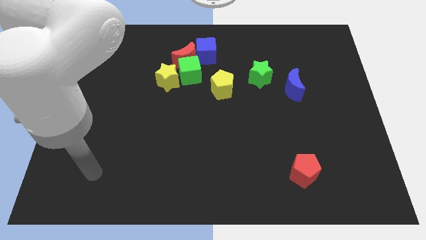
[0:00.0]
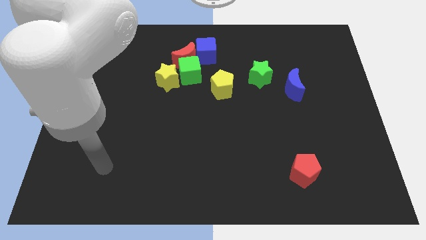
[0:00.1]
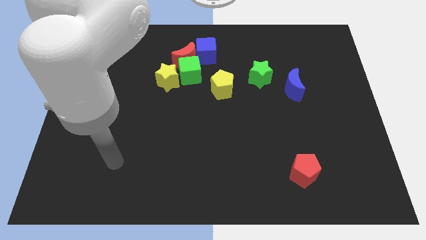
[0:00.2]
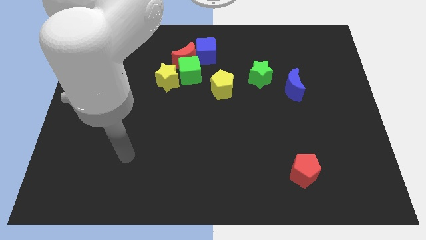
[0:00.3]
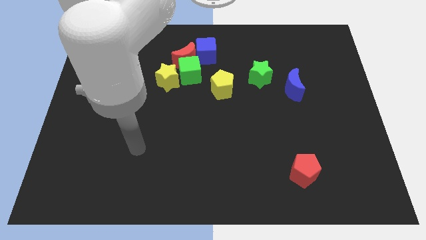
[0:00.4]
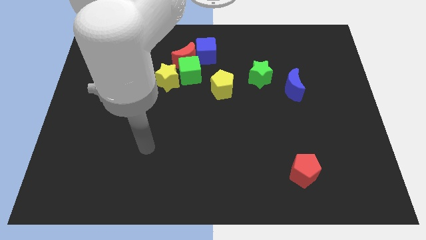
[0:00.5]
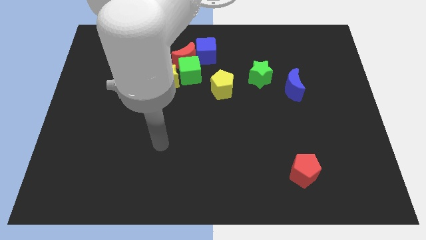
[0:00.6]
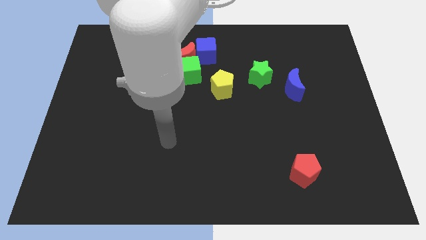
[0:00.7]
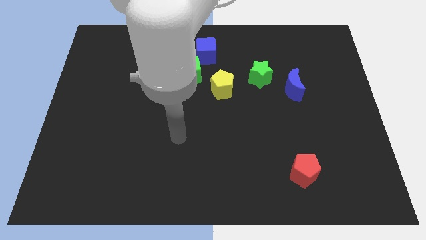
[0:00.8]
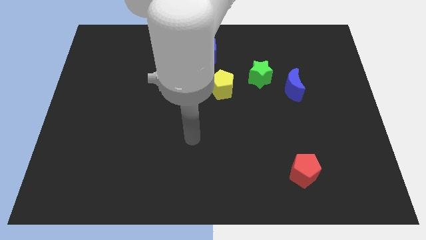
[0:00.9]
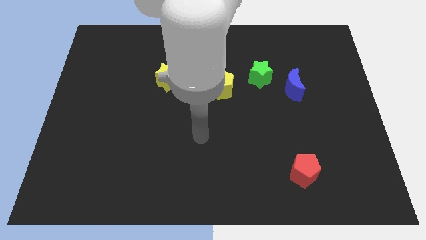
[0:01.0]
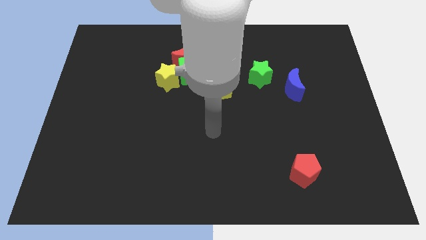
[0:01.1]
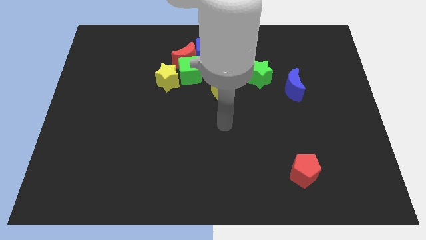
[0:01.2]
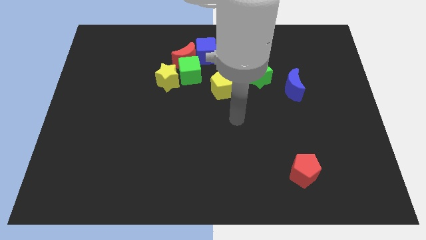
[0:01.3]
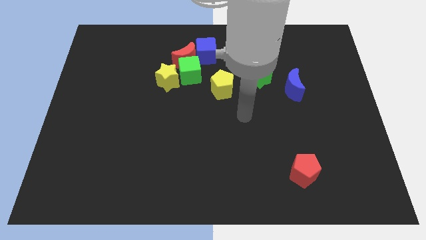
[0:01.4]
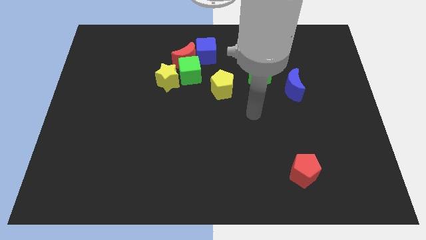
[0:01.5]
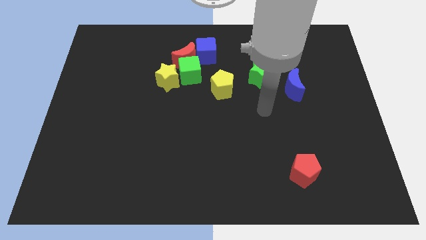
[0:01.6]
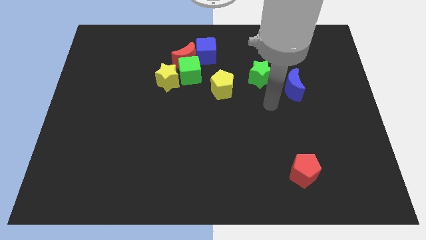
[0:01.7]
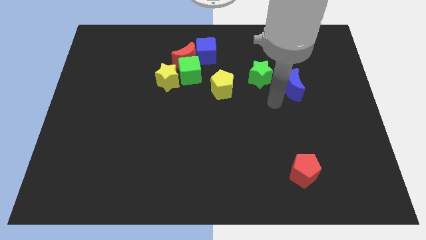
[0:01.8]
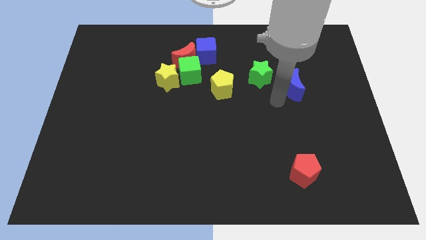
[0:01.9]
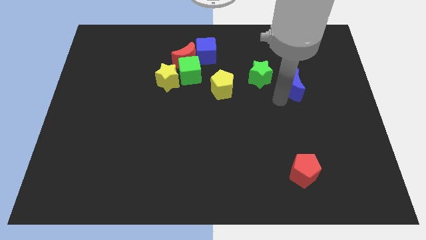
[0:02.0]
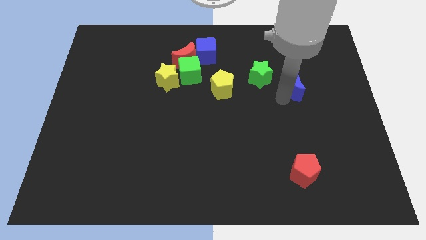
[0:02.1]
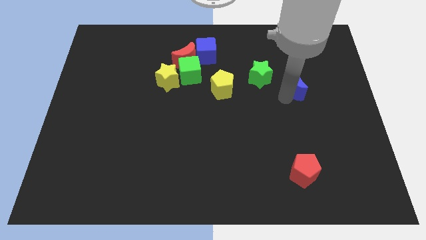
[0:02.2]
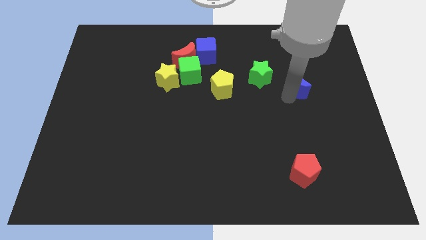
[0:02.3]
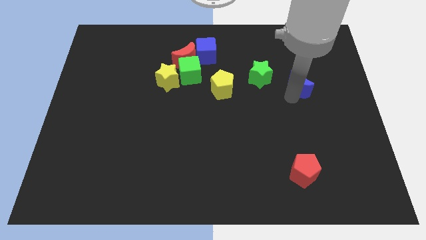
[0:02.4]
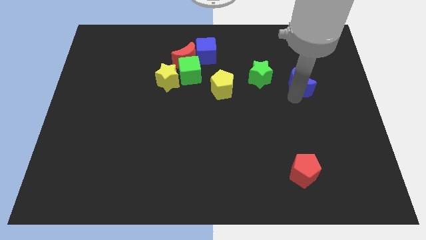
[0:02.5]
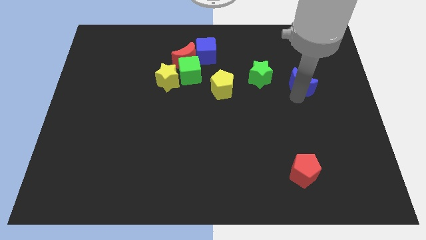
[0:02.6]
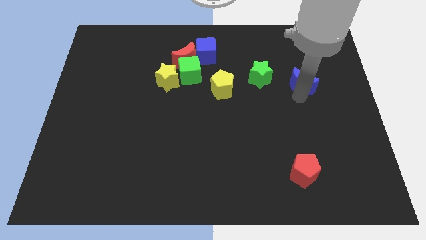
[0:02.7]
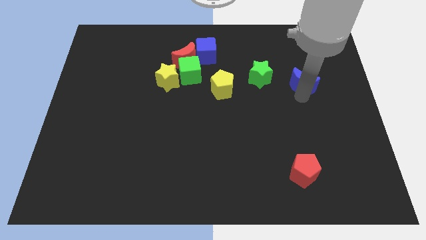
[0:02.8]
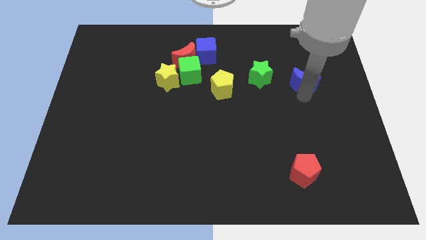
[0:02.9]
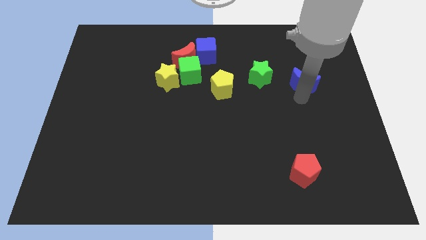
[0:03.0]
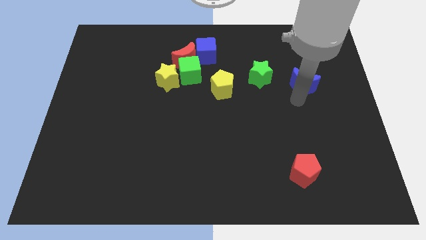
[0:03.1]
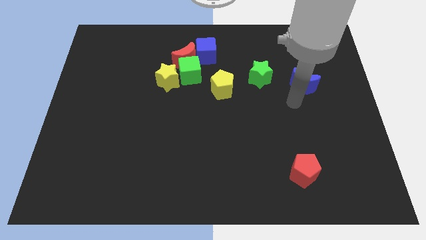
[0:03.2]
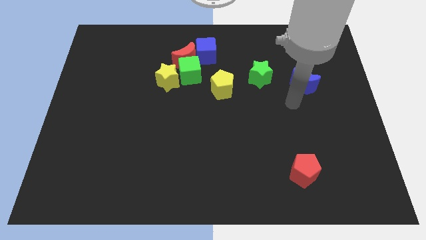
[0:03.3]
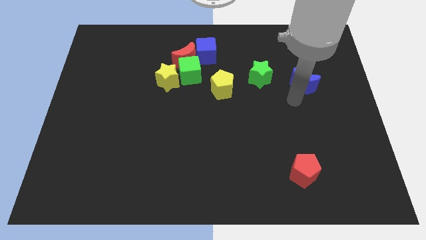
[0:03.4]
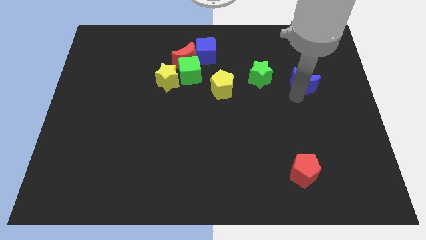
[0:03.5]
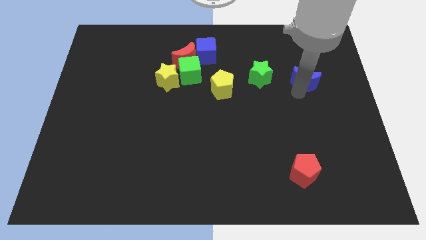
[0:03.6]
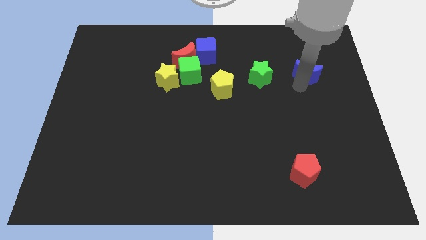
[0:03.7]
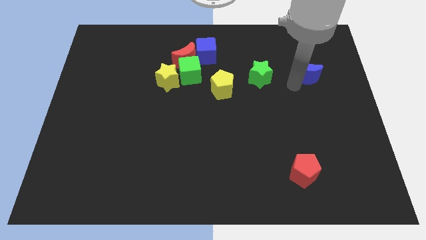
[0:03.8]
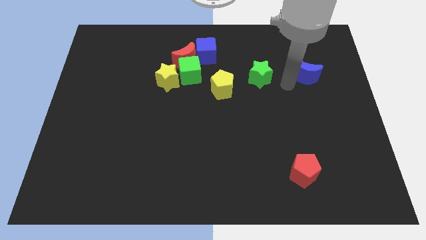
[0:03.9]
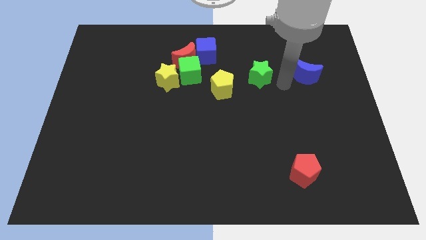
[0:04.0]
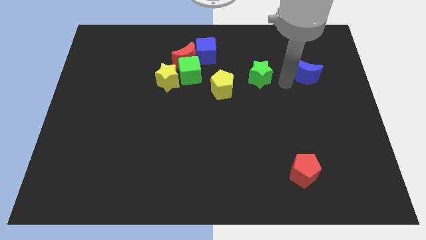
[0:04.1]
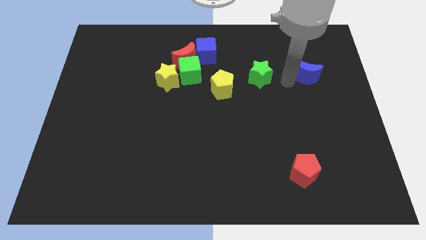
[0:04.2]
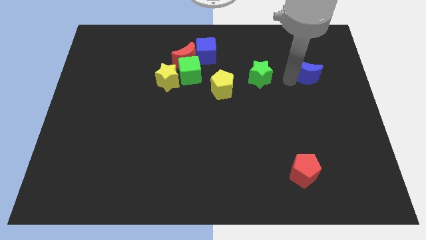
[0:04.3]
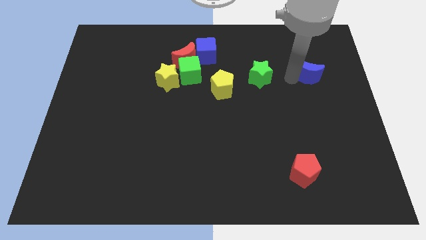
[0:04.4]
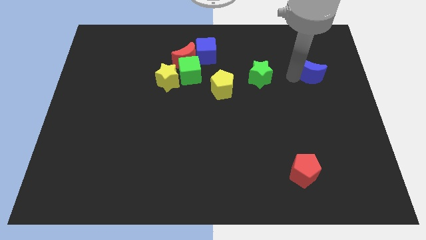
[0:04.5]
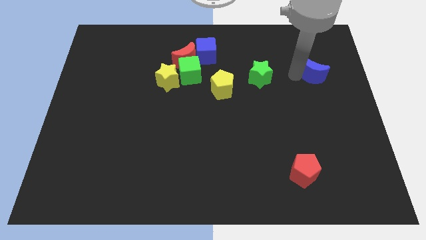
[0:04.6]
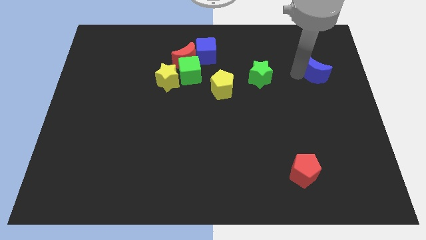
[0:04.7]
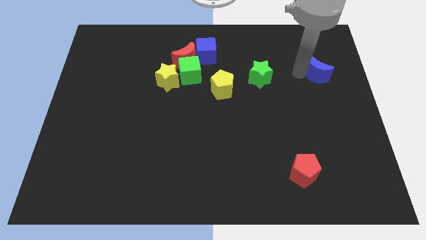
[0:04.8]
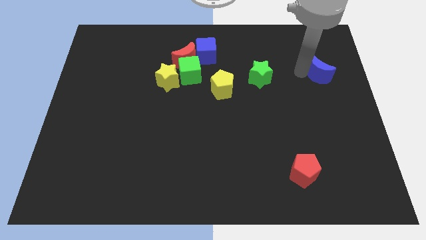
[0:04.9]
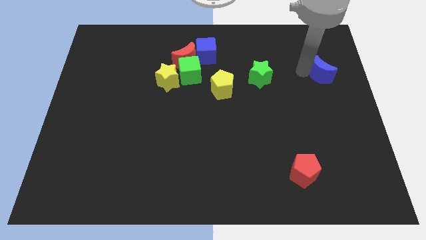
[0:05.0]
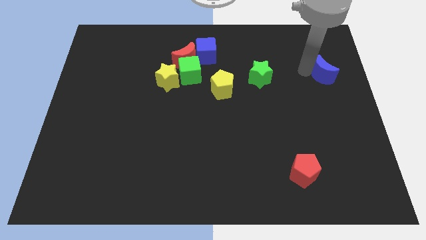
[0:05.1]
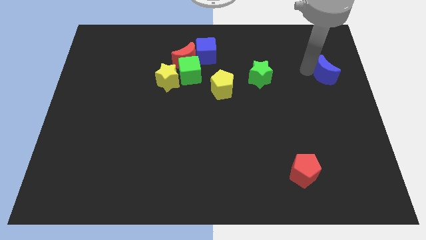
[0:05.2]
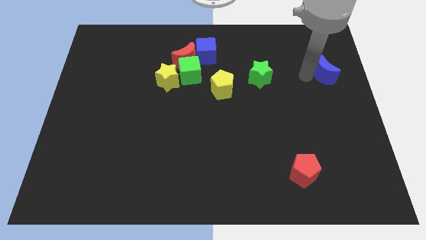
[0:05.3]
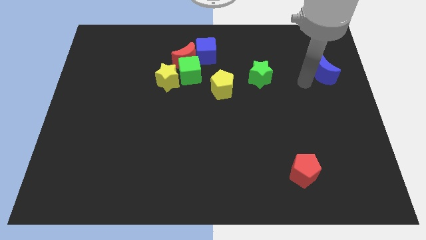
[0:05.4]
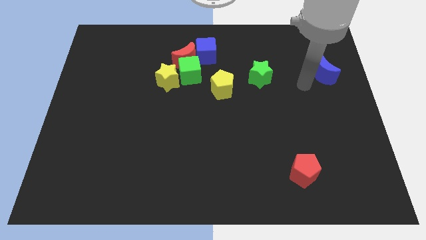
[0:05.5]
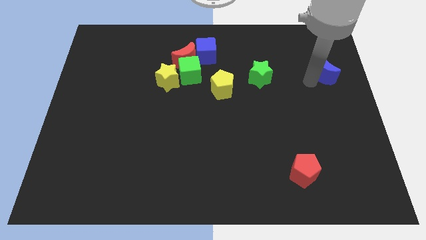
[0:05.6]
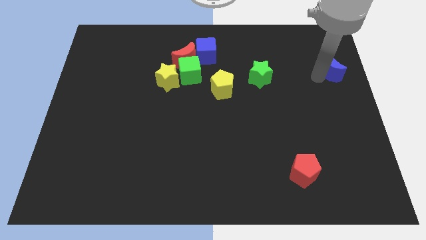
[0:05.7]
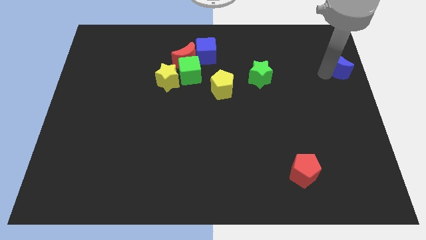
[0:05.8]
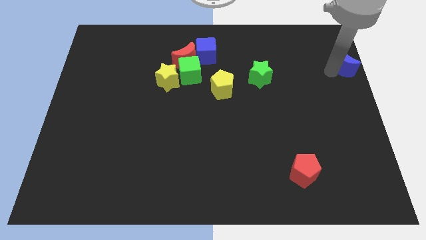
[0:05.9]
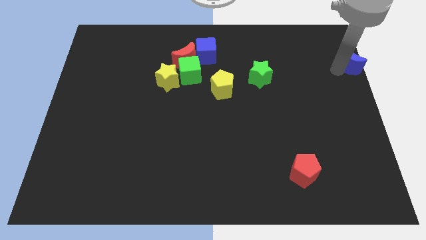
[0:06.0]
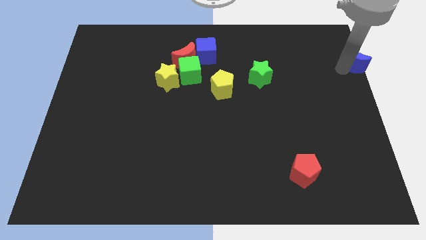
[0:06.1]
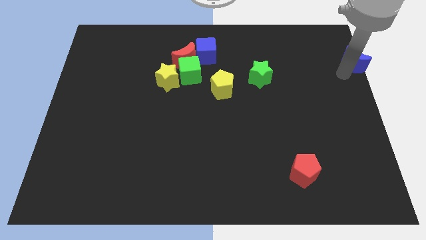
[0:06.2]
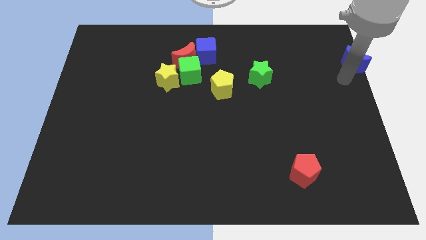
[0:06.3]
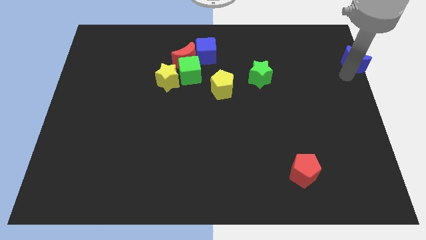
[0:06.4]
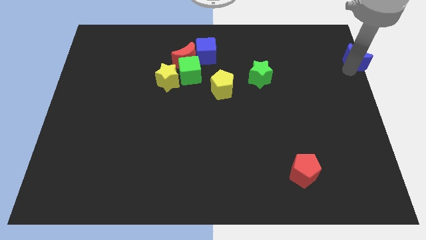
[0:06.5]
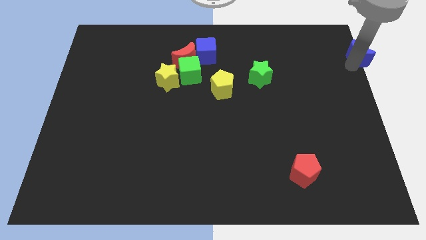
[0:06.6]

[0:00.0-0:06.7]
put the blue moon to the top right corner

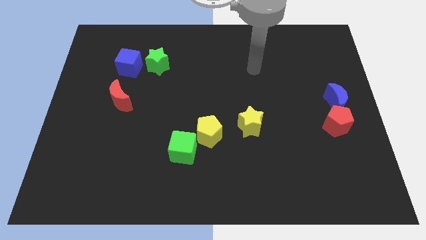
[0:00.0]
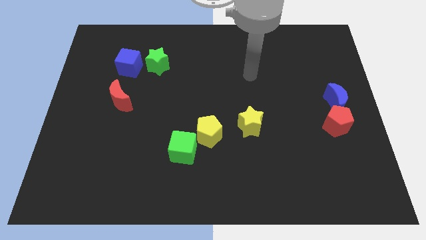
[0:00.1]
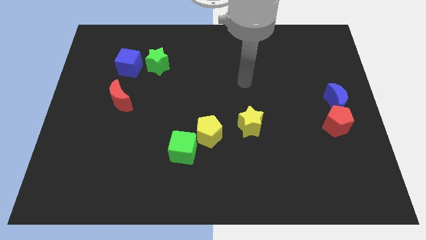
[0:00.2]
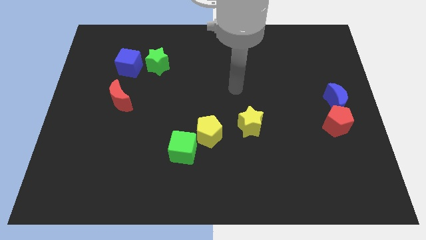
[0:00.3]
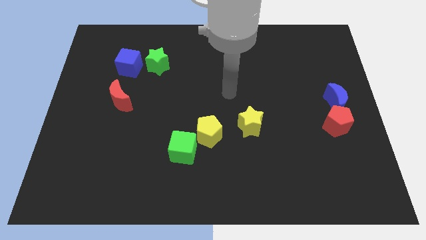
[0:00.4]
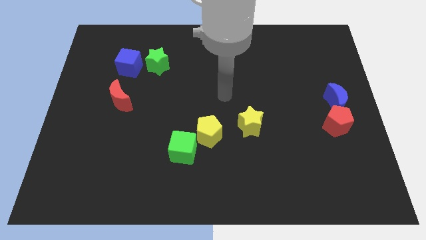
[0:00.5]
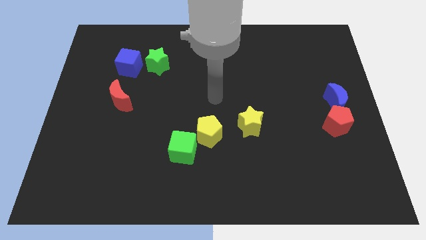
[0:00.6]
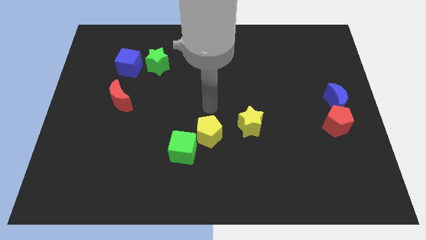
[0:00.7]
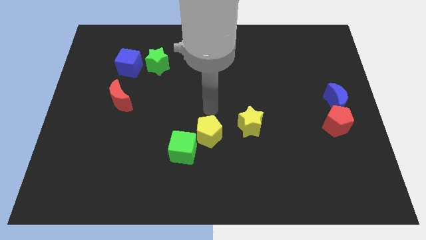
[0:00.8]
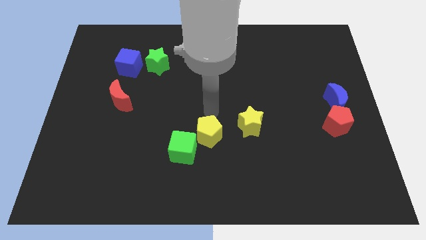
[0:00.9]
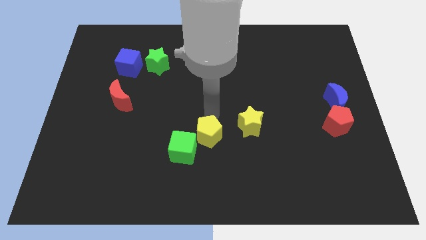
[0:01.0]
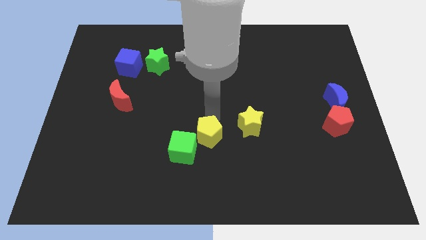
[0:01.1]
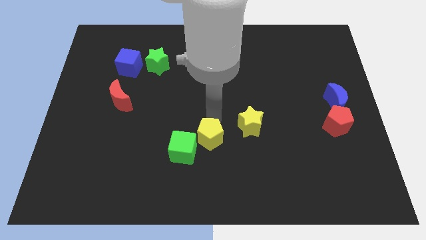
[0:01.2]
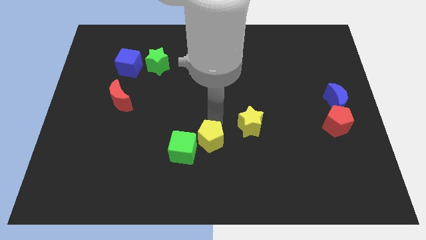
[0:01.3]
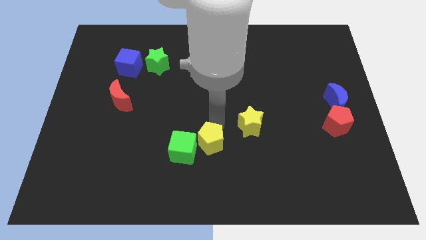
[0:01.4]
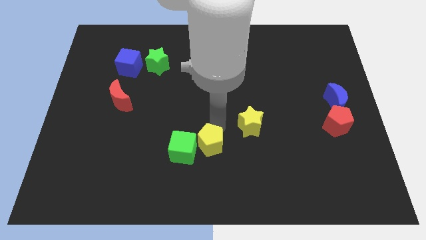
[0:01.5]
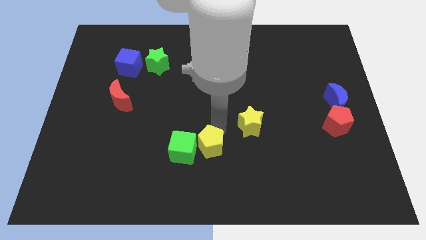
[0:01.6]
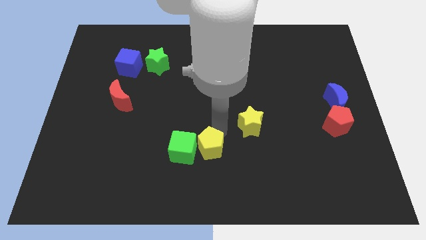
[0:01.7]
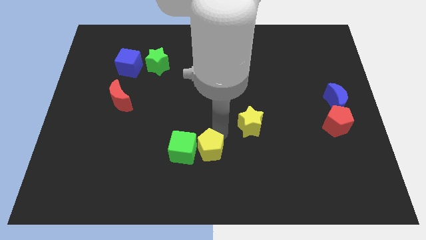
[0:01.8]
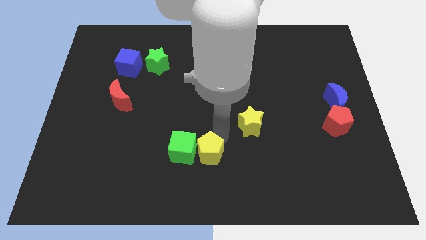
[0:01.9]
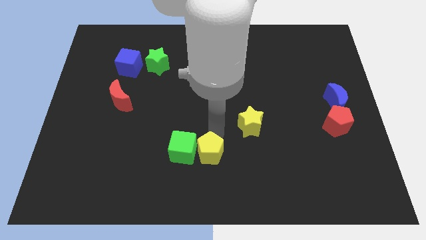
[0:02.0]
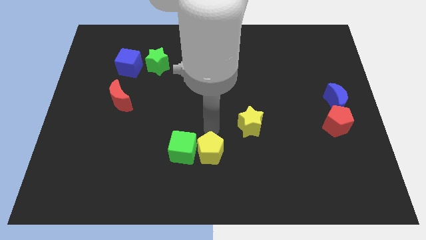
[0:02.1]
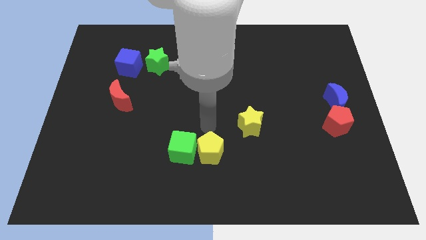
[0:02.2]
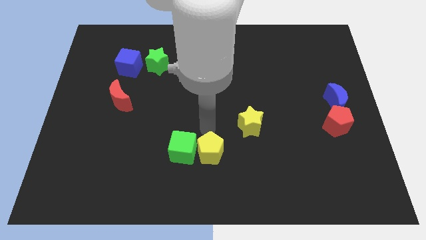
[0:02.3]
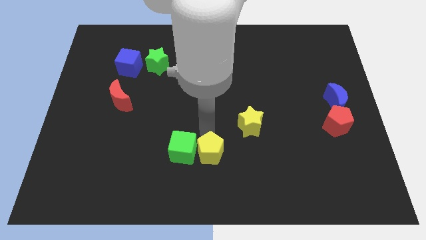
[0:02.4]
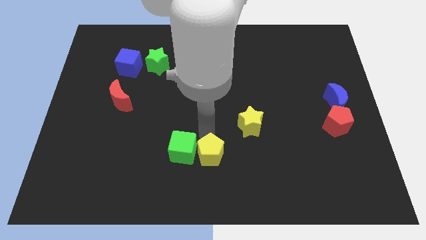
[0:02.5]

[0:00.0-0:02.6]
slide the yellow pentagon to the bottom
